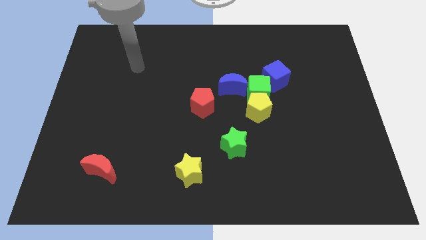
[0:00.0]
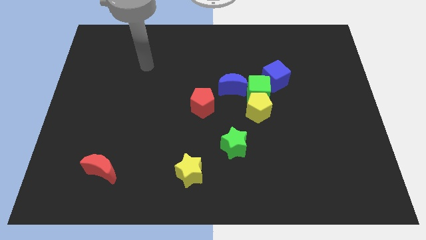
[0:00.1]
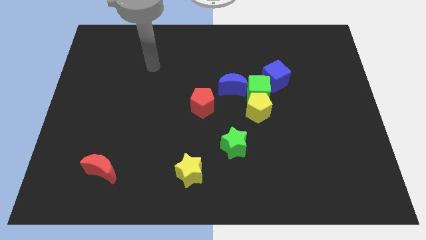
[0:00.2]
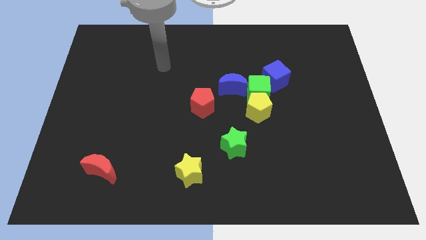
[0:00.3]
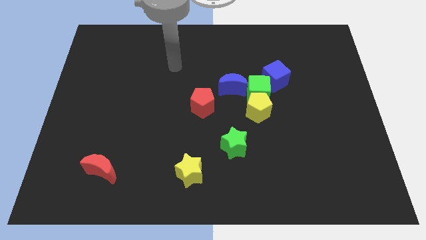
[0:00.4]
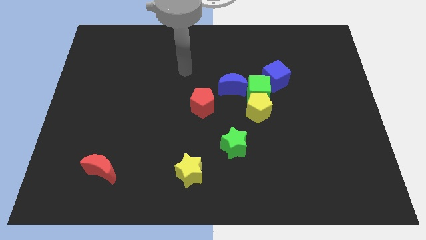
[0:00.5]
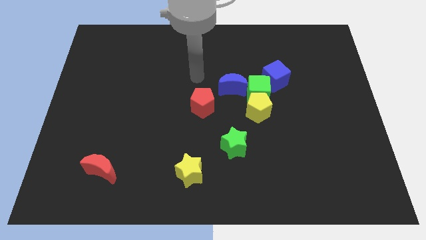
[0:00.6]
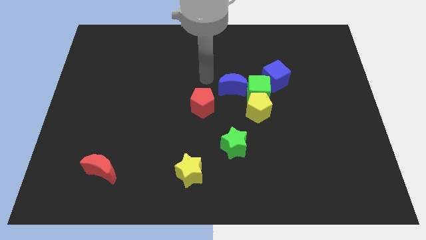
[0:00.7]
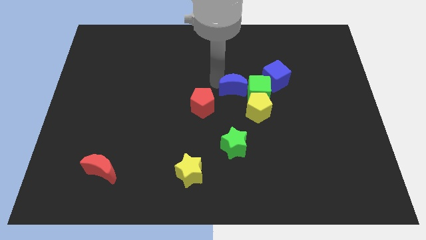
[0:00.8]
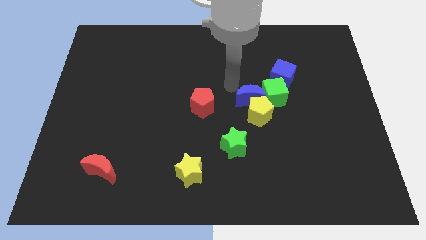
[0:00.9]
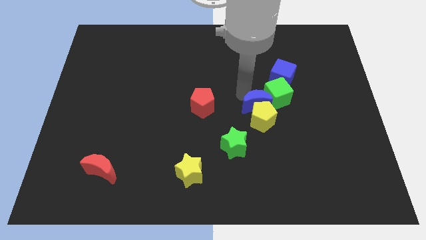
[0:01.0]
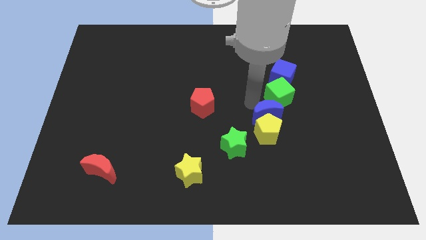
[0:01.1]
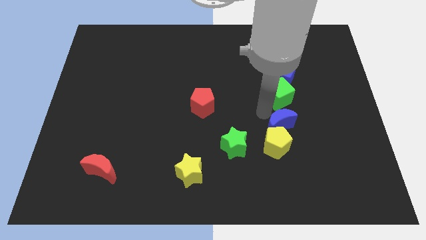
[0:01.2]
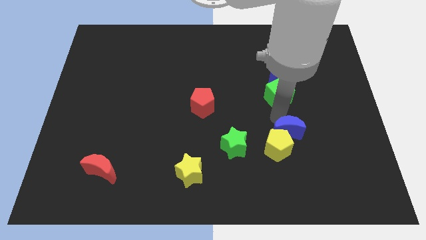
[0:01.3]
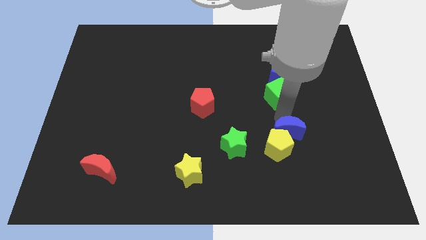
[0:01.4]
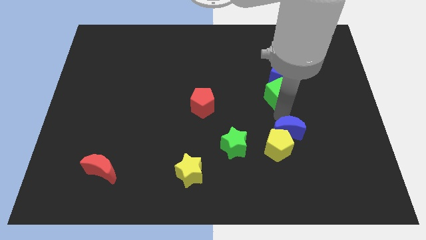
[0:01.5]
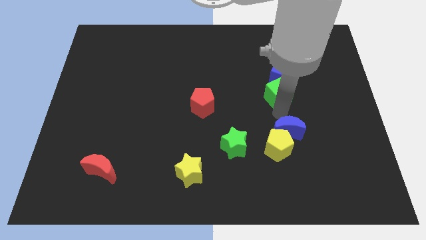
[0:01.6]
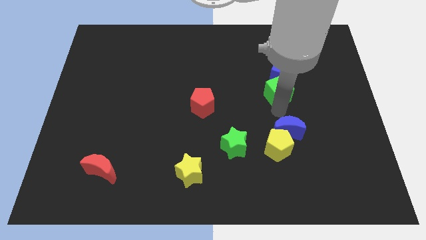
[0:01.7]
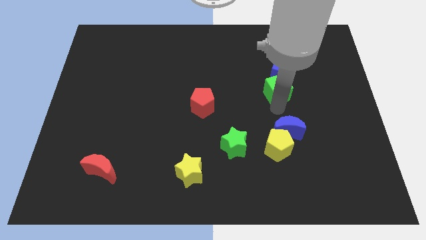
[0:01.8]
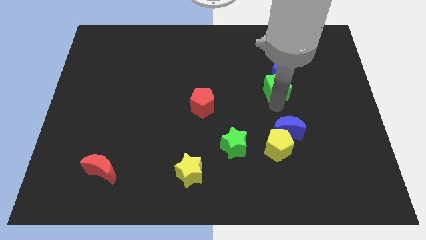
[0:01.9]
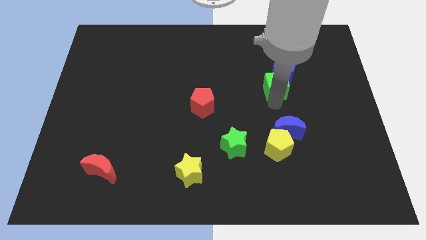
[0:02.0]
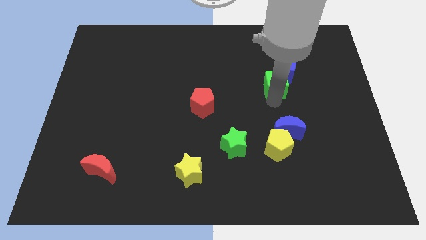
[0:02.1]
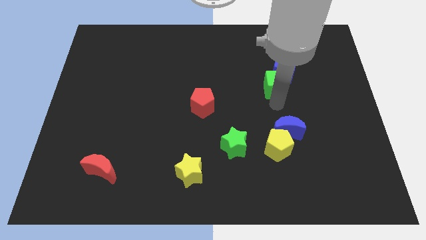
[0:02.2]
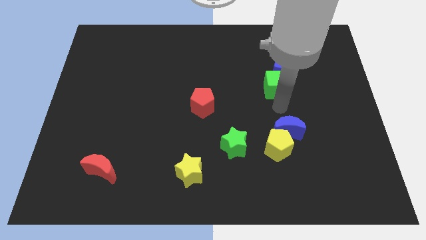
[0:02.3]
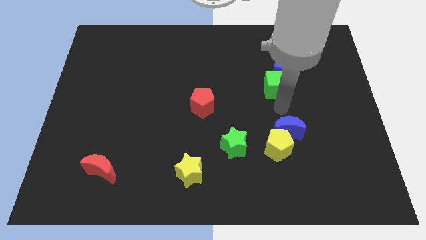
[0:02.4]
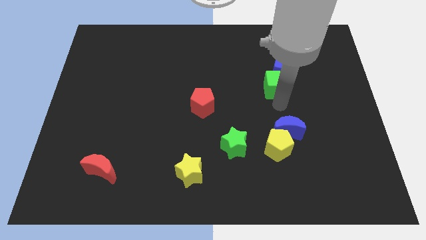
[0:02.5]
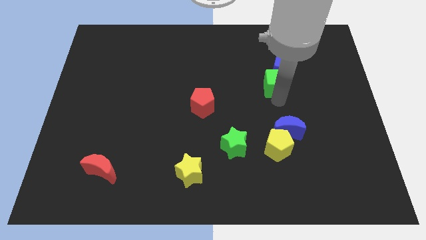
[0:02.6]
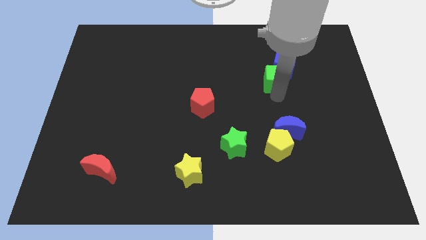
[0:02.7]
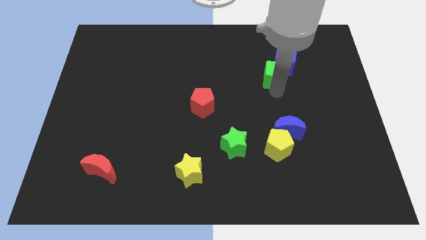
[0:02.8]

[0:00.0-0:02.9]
separate the green cube from the yellow pentagon, blue cube, and blue moon

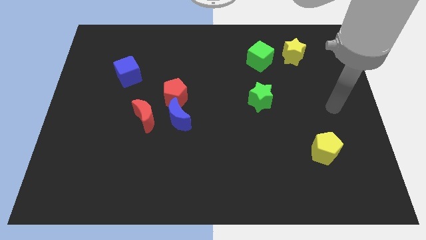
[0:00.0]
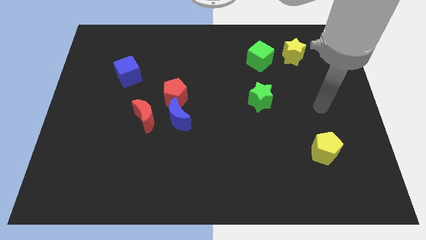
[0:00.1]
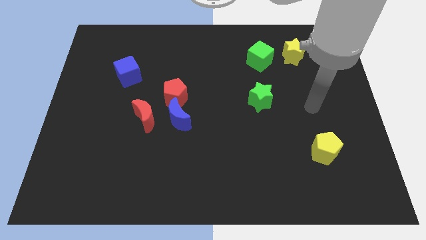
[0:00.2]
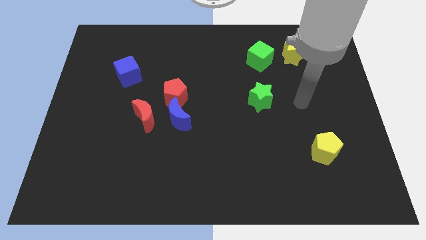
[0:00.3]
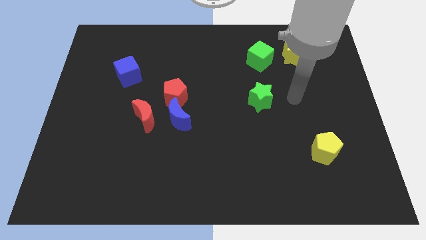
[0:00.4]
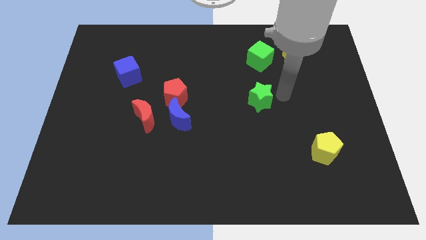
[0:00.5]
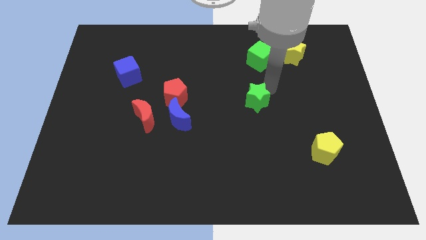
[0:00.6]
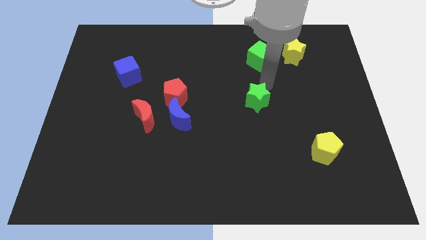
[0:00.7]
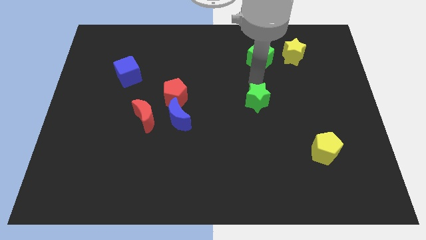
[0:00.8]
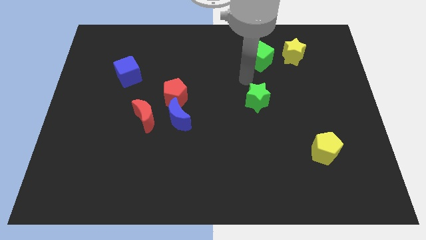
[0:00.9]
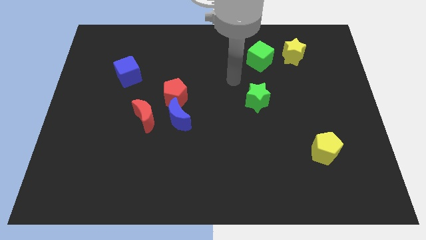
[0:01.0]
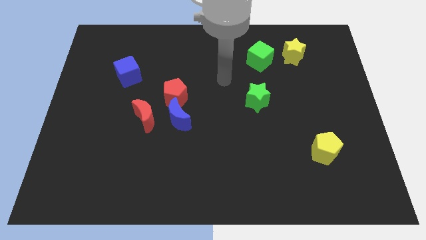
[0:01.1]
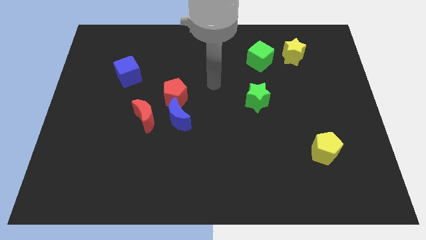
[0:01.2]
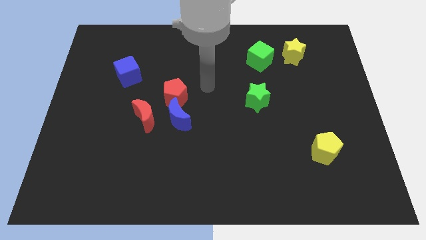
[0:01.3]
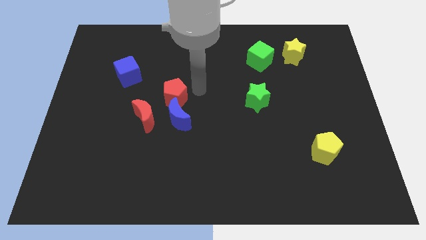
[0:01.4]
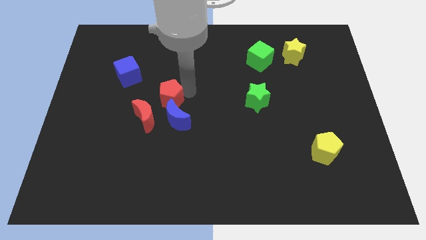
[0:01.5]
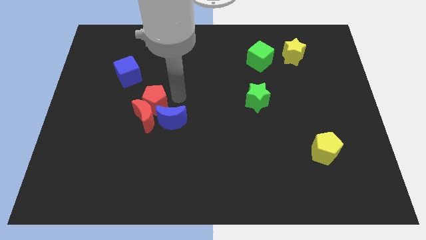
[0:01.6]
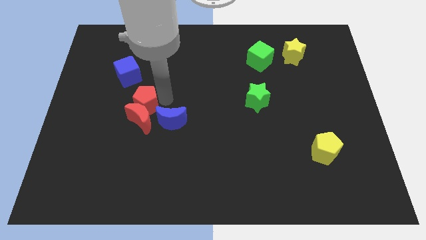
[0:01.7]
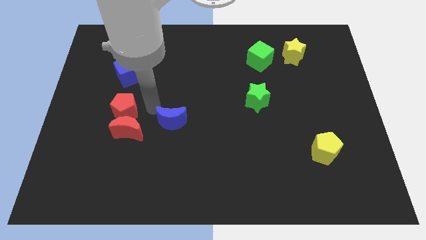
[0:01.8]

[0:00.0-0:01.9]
move the blue moon away from the red pentagon and red moon

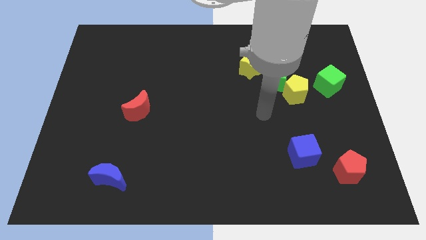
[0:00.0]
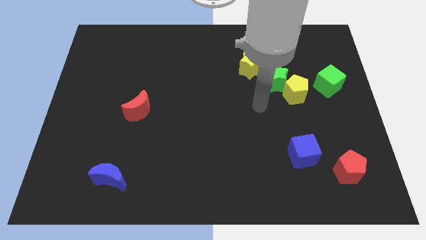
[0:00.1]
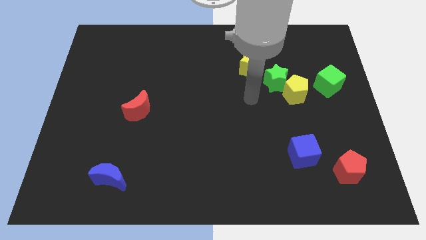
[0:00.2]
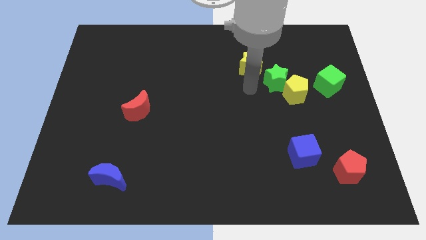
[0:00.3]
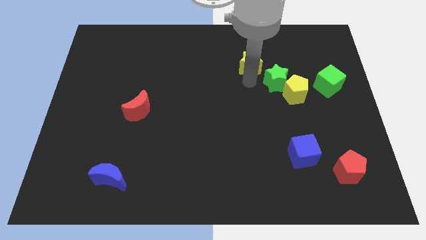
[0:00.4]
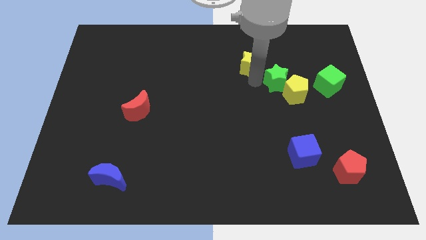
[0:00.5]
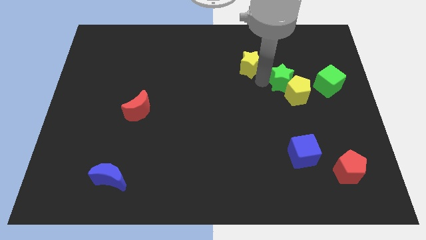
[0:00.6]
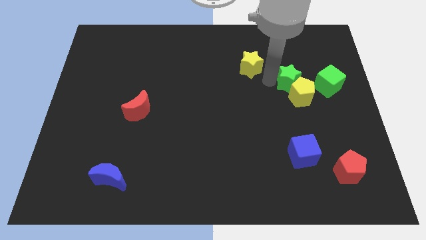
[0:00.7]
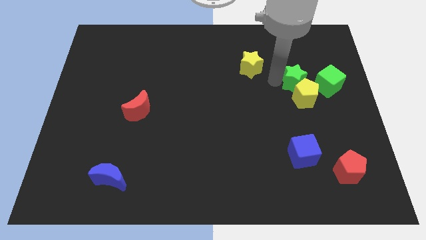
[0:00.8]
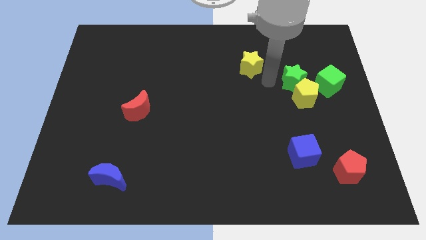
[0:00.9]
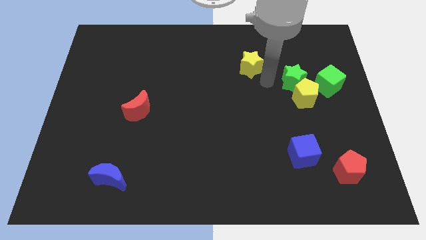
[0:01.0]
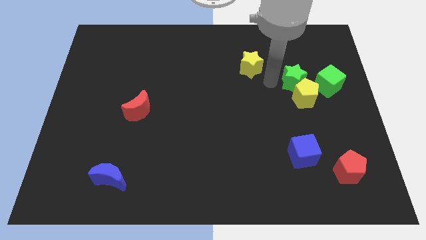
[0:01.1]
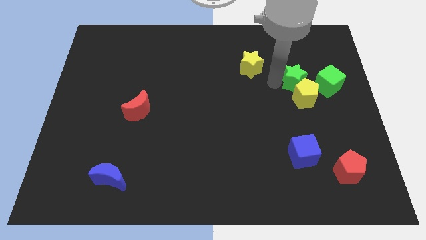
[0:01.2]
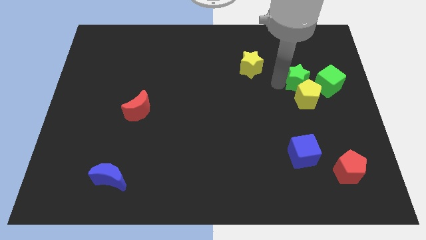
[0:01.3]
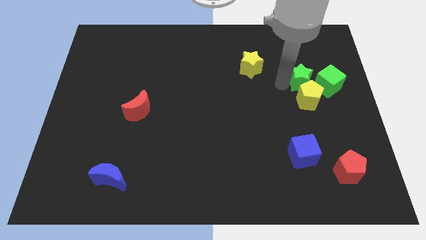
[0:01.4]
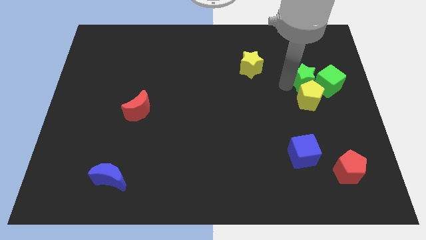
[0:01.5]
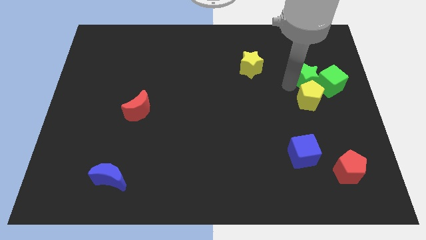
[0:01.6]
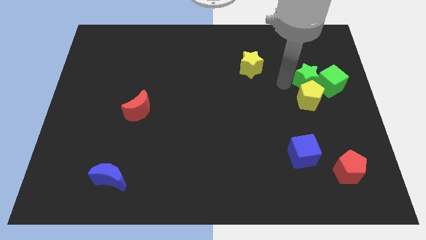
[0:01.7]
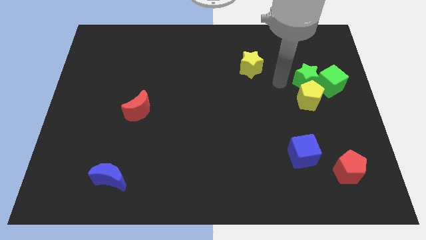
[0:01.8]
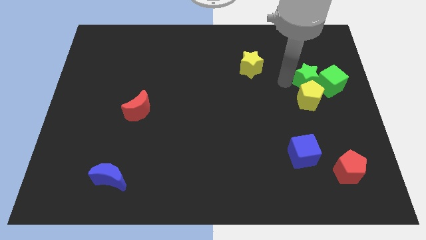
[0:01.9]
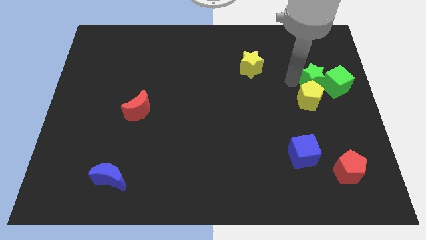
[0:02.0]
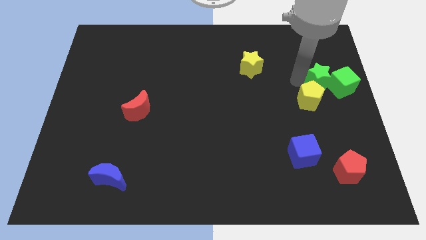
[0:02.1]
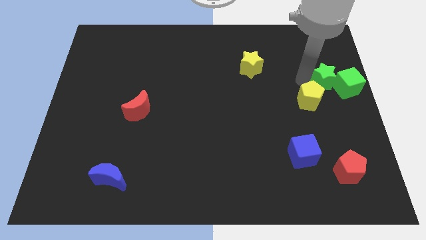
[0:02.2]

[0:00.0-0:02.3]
separate the green star from the yellow pentagon and yellow star

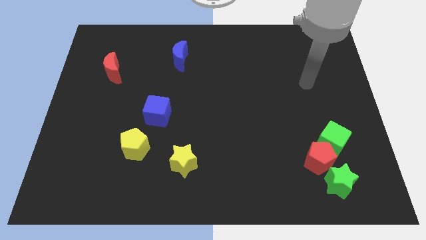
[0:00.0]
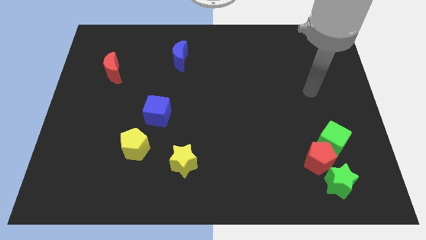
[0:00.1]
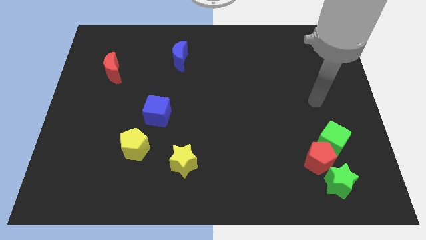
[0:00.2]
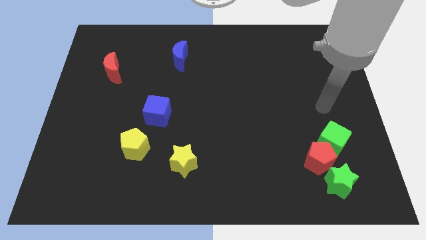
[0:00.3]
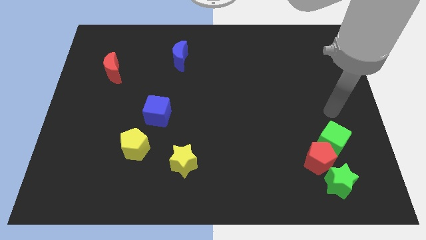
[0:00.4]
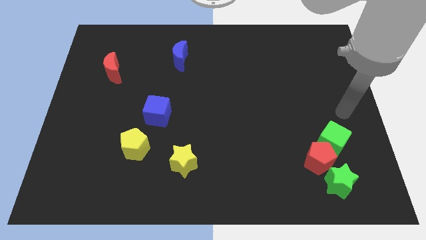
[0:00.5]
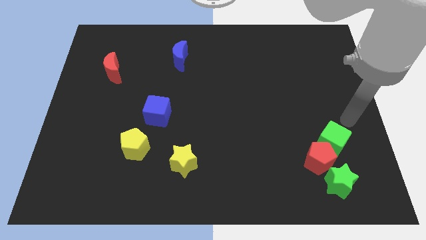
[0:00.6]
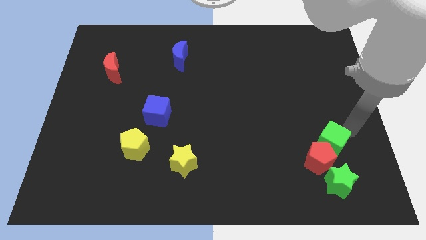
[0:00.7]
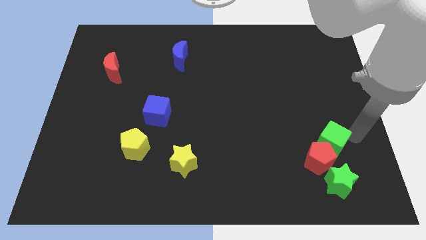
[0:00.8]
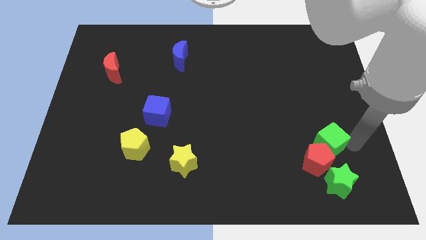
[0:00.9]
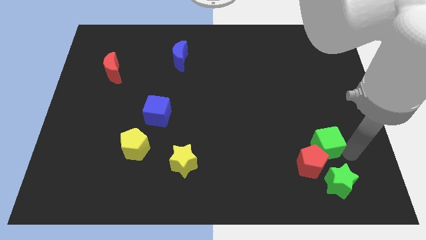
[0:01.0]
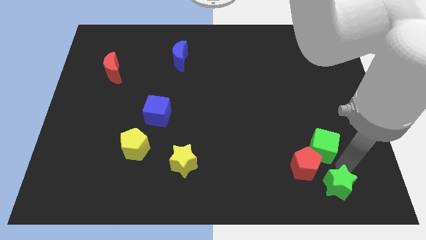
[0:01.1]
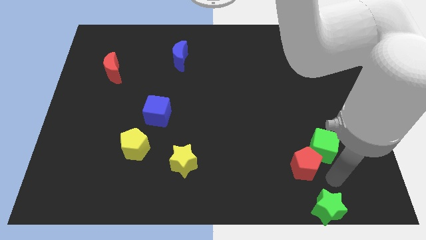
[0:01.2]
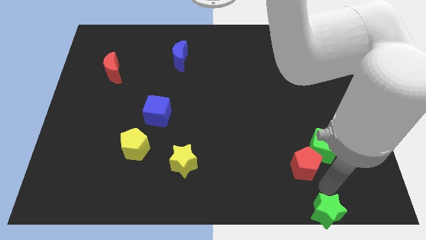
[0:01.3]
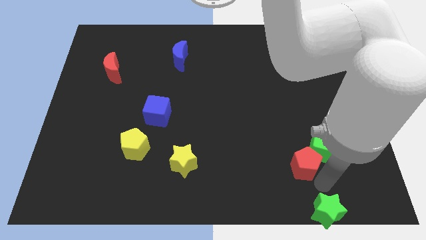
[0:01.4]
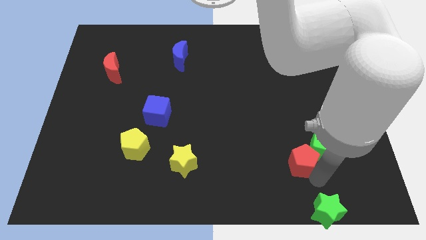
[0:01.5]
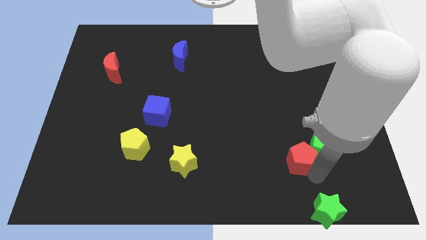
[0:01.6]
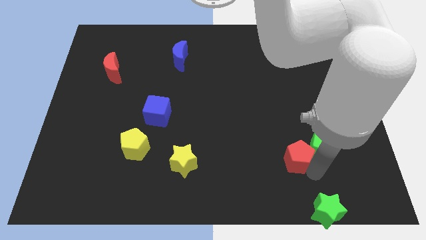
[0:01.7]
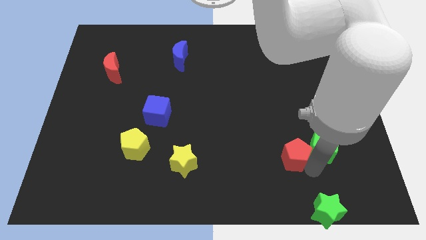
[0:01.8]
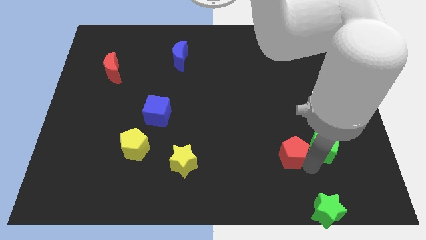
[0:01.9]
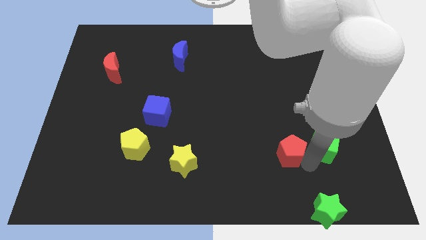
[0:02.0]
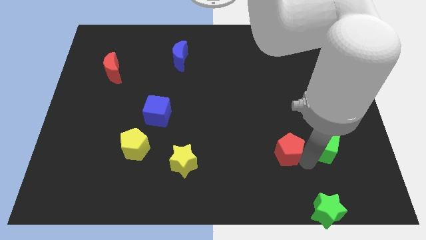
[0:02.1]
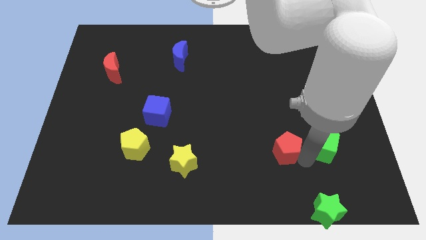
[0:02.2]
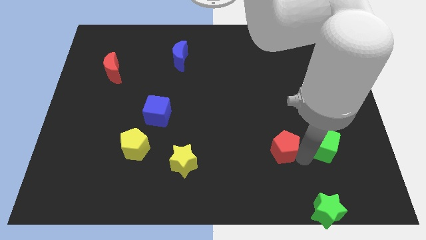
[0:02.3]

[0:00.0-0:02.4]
pull the red pentagon apart from the green cube and green star
